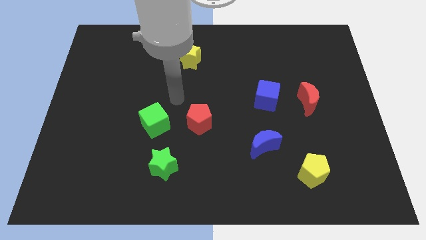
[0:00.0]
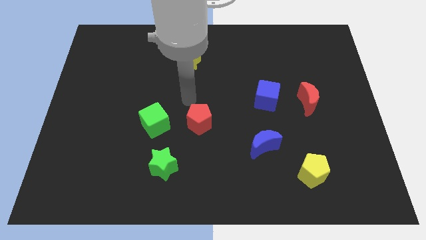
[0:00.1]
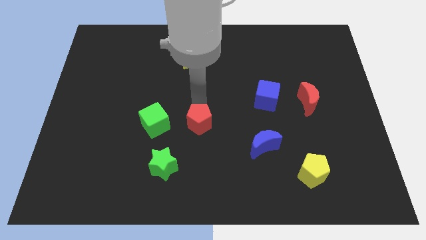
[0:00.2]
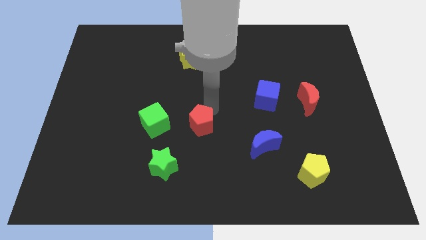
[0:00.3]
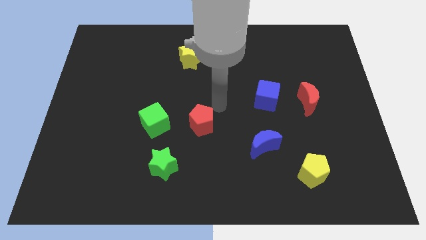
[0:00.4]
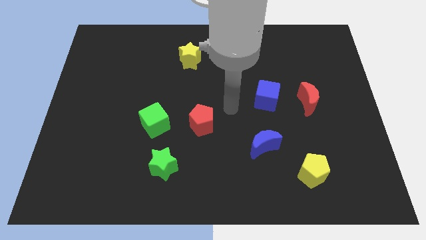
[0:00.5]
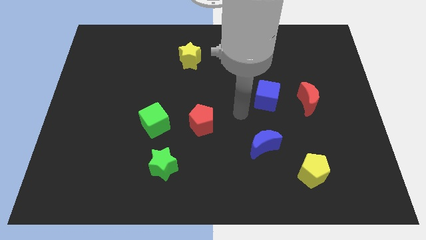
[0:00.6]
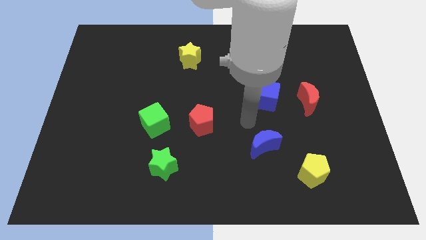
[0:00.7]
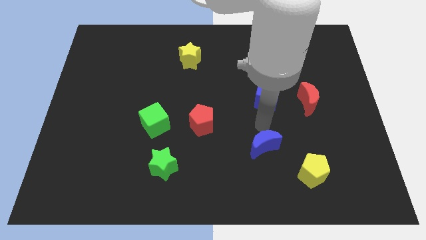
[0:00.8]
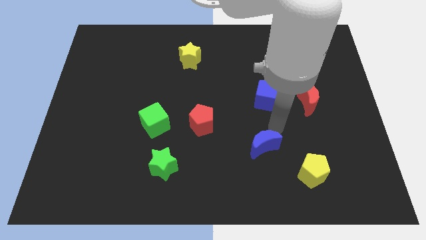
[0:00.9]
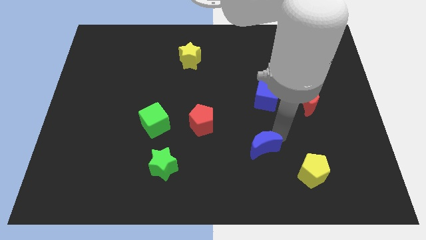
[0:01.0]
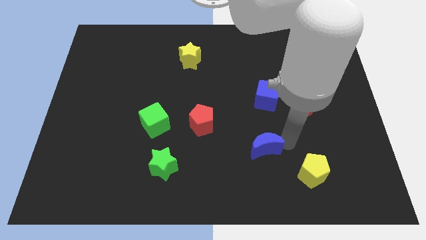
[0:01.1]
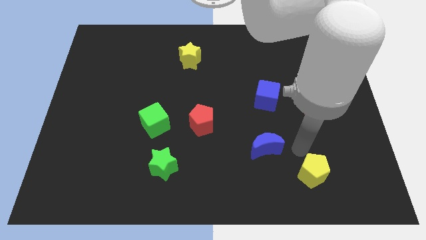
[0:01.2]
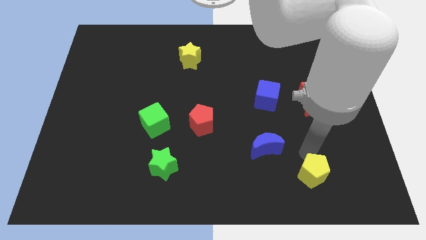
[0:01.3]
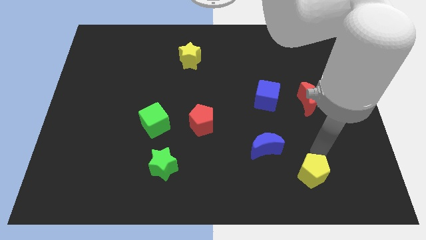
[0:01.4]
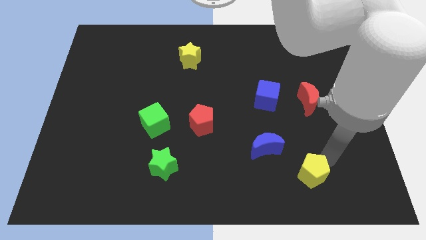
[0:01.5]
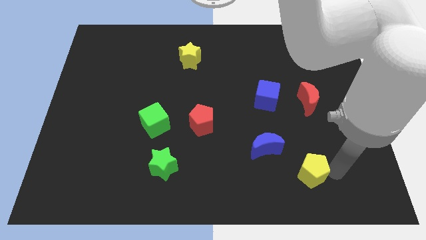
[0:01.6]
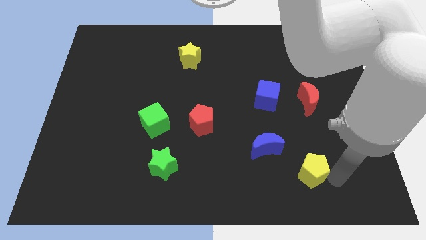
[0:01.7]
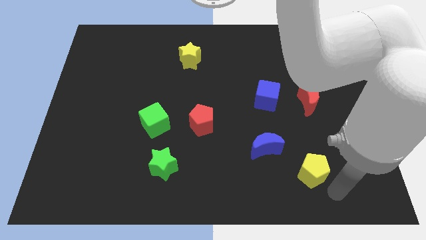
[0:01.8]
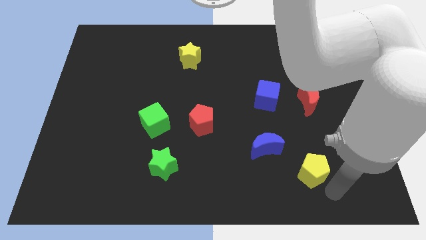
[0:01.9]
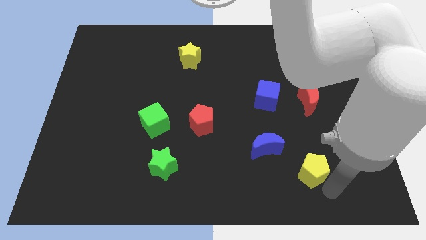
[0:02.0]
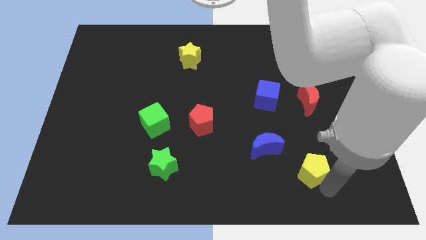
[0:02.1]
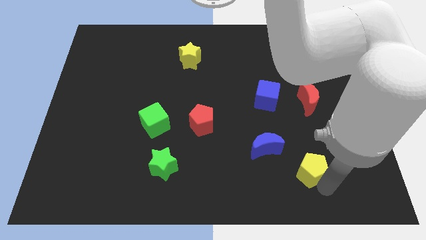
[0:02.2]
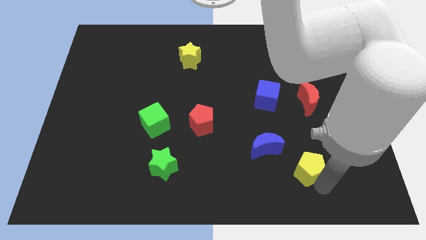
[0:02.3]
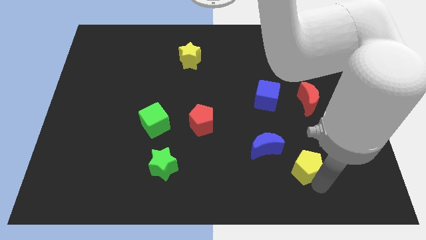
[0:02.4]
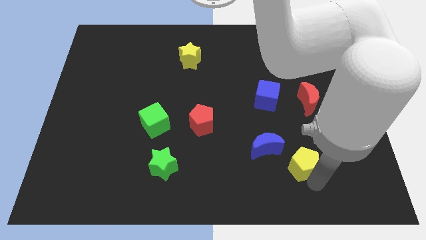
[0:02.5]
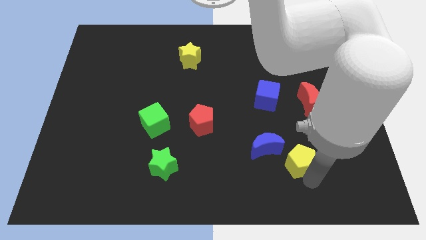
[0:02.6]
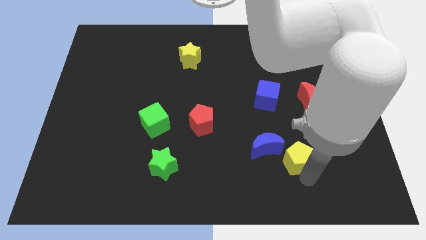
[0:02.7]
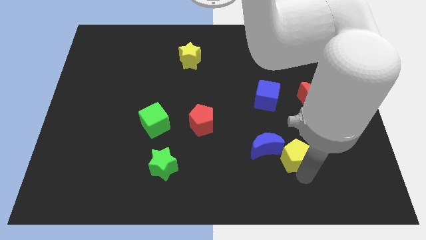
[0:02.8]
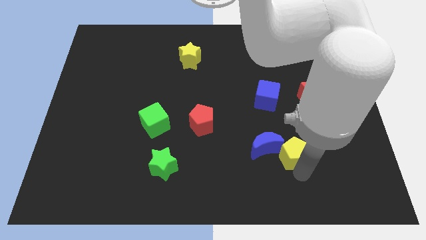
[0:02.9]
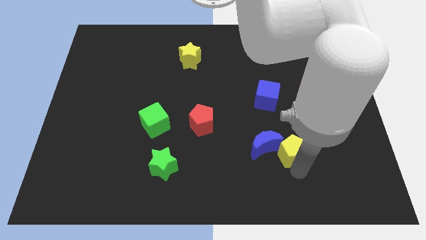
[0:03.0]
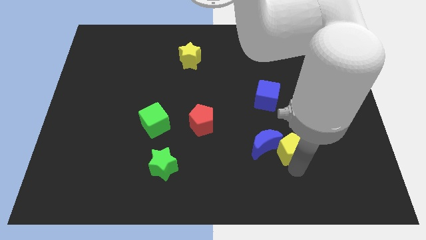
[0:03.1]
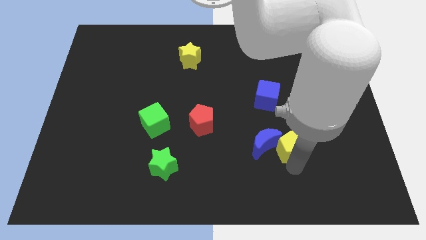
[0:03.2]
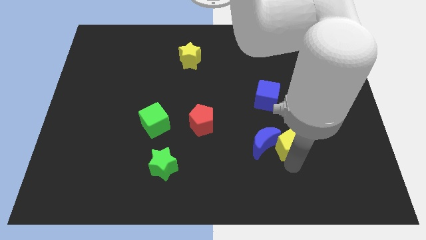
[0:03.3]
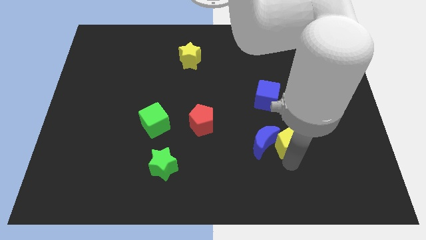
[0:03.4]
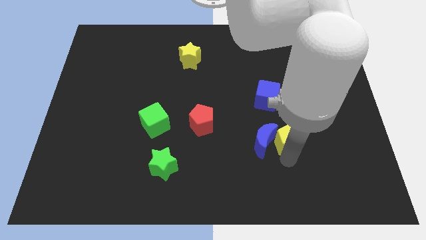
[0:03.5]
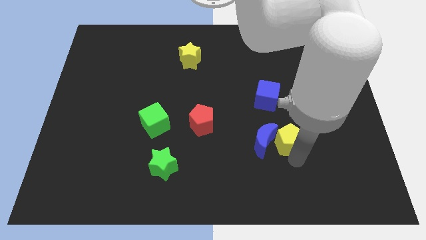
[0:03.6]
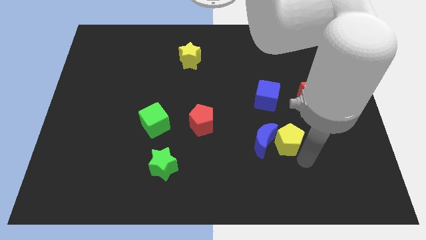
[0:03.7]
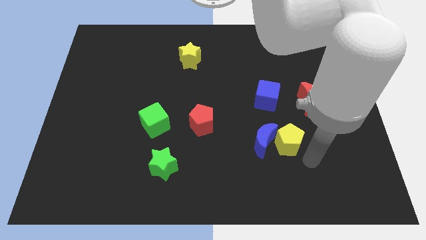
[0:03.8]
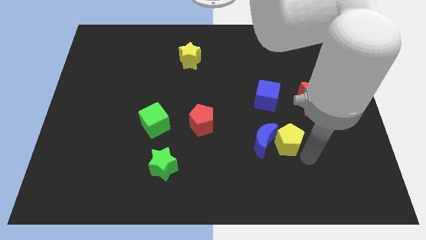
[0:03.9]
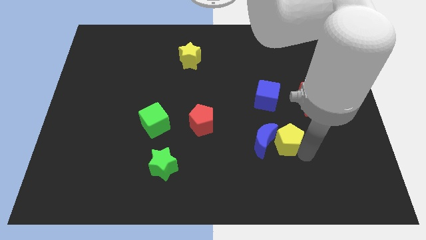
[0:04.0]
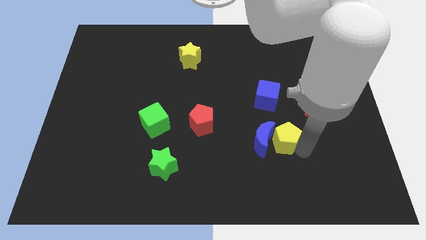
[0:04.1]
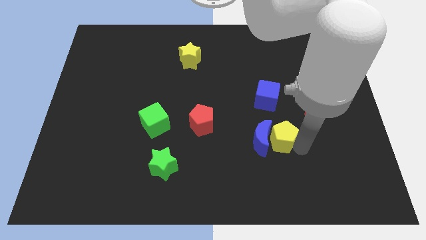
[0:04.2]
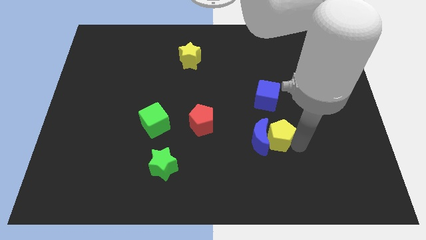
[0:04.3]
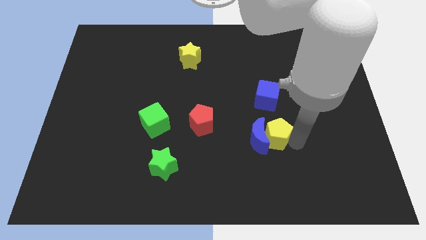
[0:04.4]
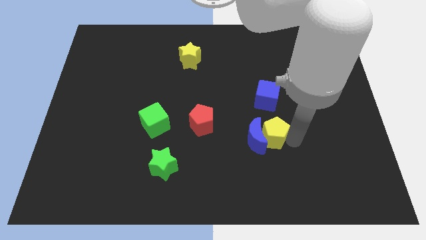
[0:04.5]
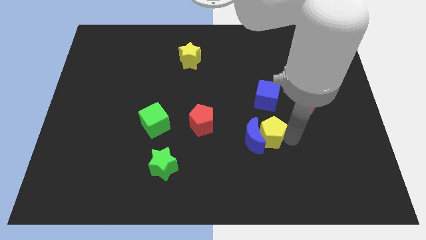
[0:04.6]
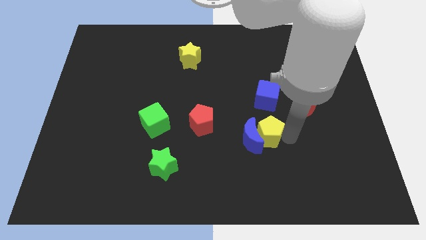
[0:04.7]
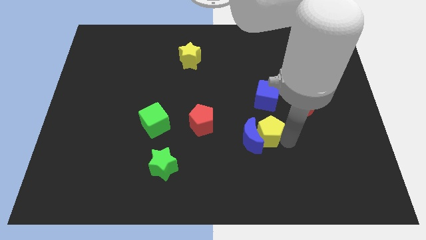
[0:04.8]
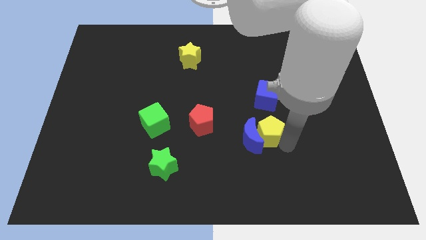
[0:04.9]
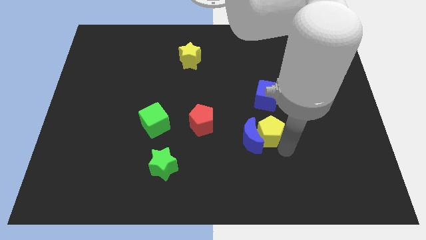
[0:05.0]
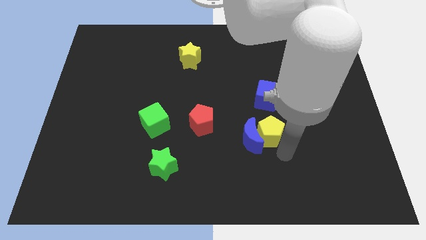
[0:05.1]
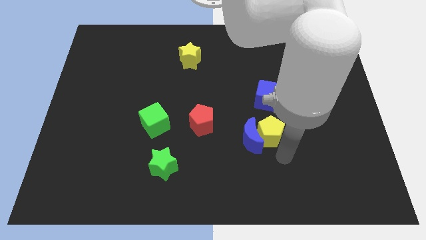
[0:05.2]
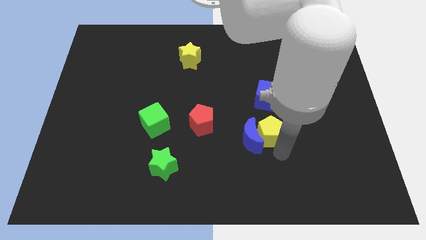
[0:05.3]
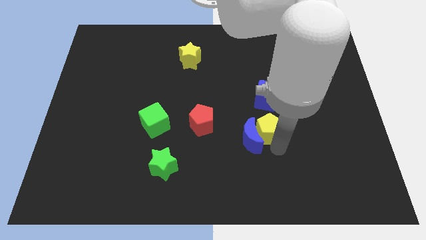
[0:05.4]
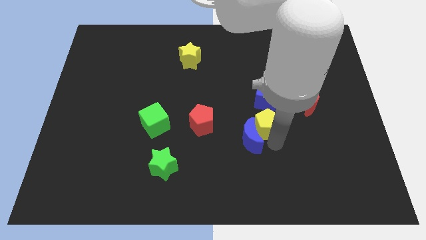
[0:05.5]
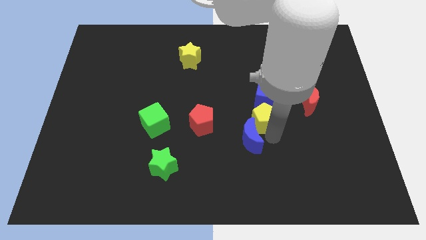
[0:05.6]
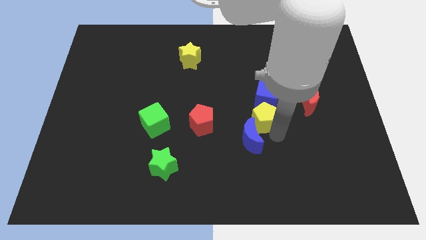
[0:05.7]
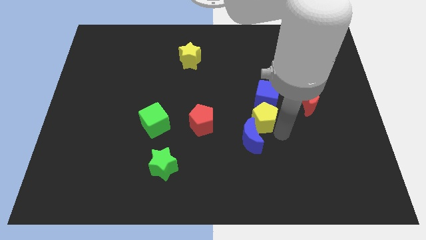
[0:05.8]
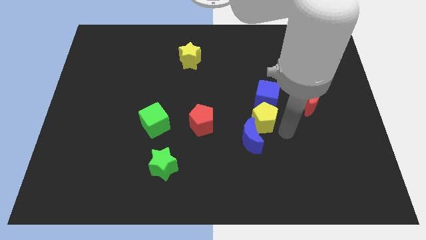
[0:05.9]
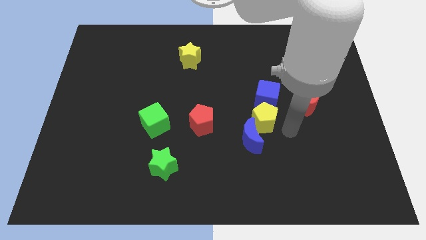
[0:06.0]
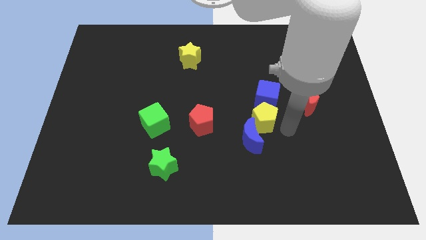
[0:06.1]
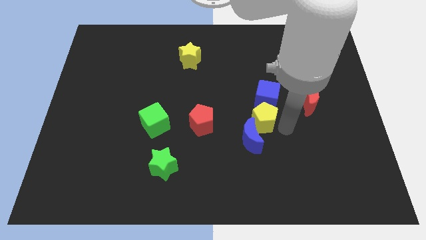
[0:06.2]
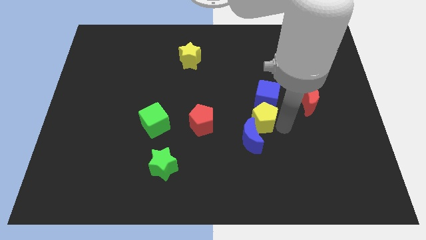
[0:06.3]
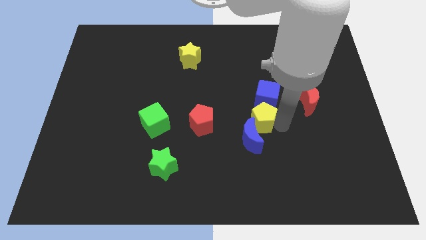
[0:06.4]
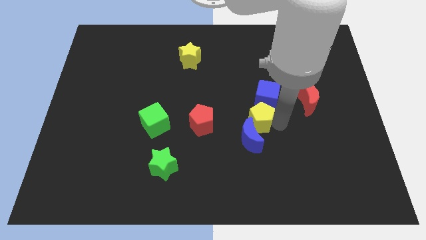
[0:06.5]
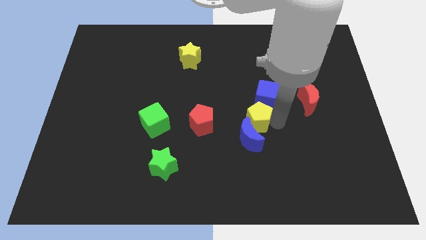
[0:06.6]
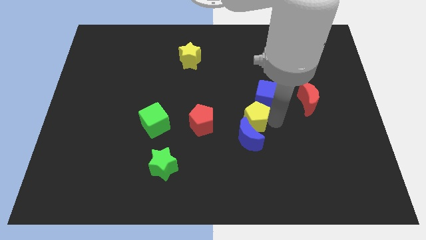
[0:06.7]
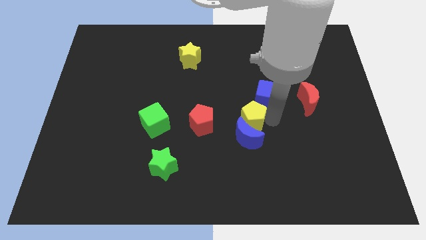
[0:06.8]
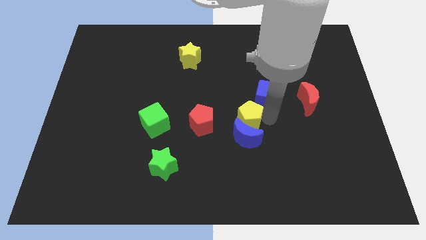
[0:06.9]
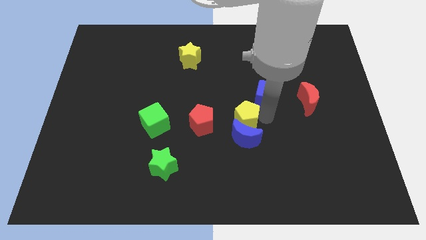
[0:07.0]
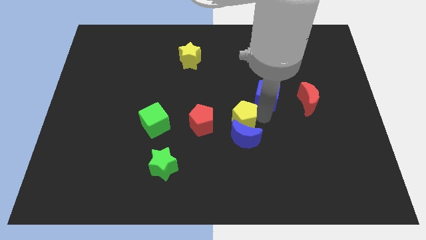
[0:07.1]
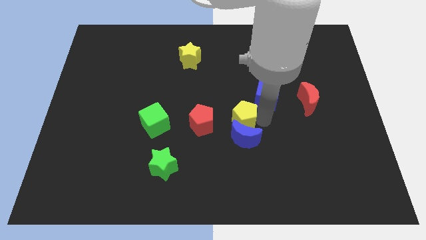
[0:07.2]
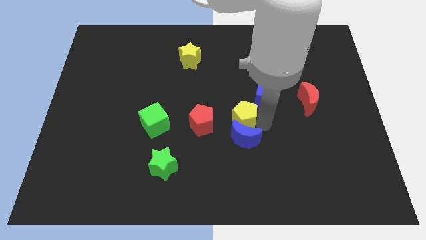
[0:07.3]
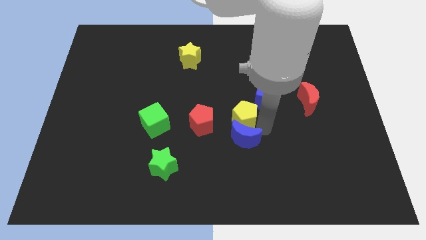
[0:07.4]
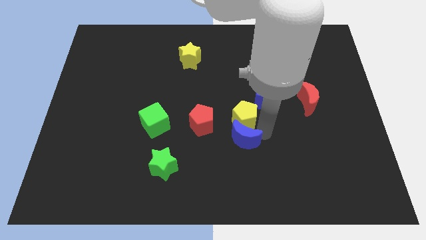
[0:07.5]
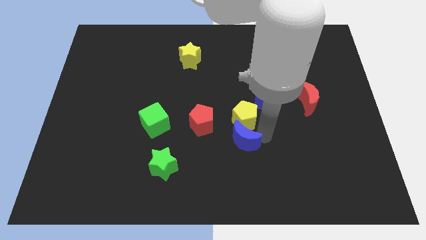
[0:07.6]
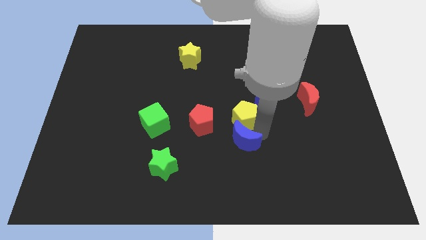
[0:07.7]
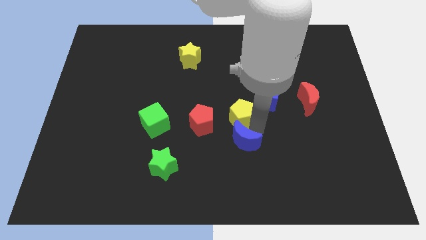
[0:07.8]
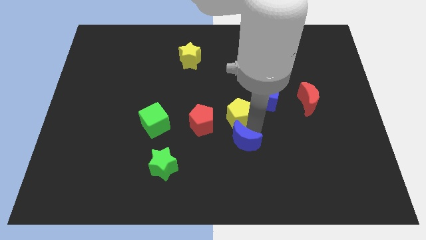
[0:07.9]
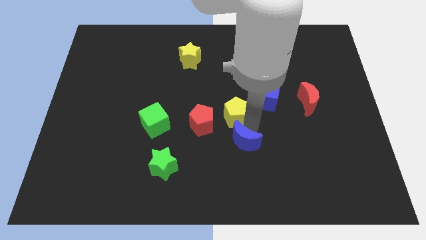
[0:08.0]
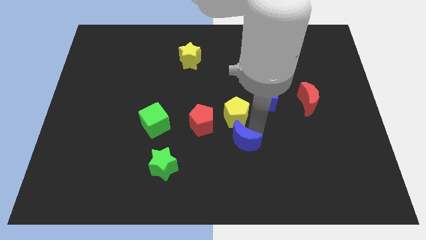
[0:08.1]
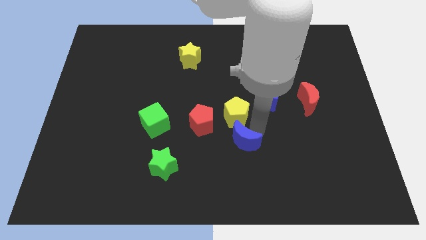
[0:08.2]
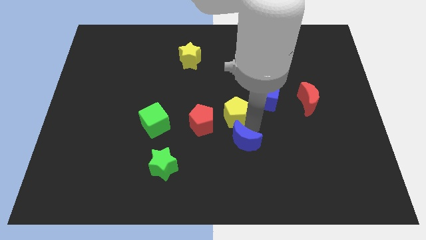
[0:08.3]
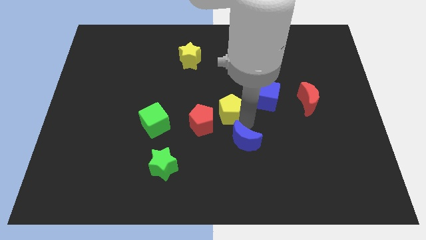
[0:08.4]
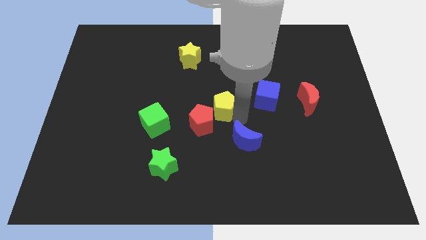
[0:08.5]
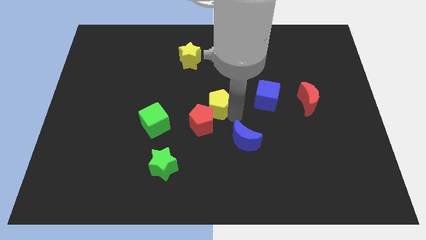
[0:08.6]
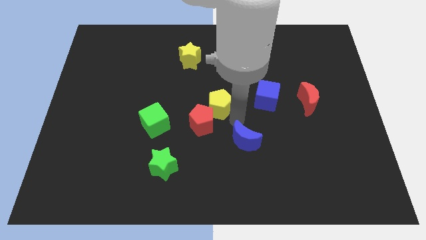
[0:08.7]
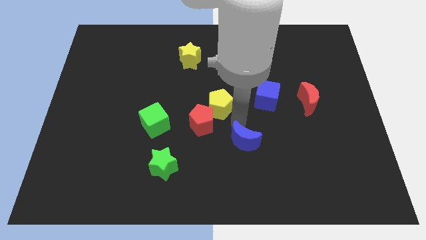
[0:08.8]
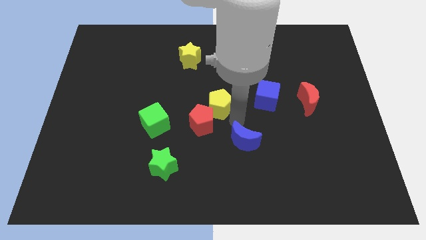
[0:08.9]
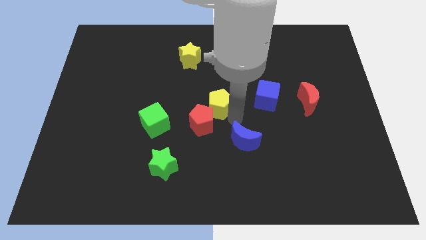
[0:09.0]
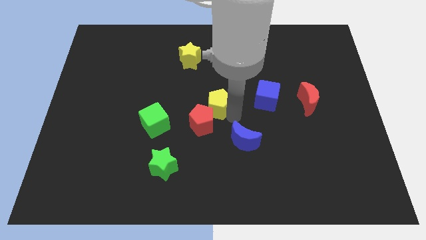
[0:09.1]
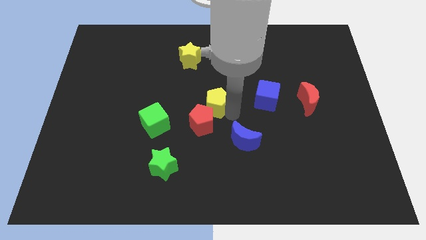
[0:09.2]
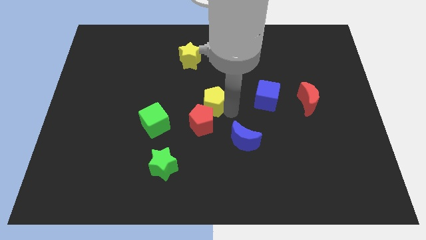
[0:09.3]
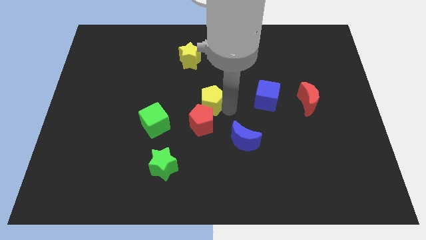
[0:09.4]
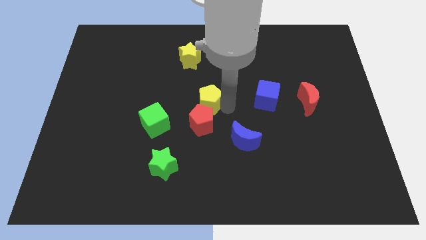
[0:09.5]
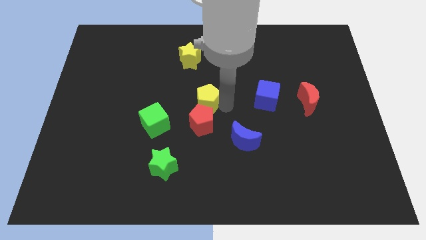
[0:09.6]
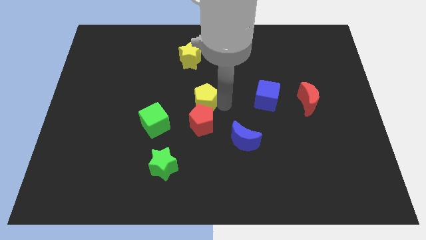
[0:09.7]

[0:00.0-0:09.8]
move the yellow pentagon to the bottom side of the yellow star
